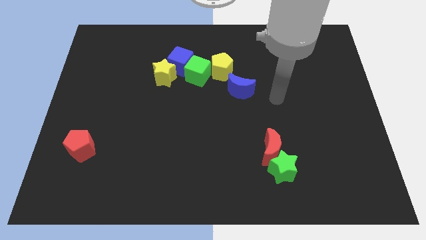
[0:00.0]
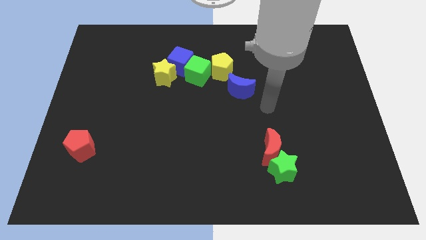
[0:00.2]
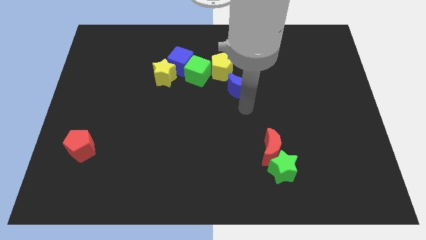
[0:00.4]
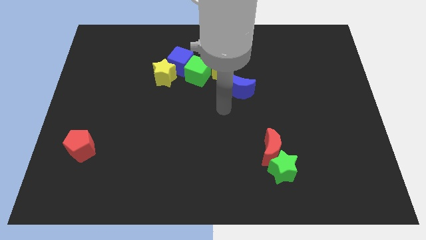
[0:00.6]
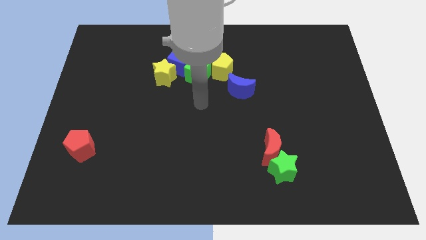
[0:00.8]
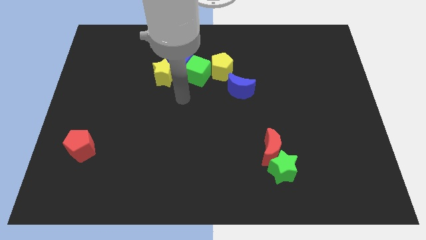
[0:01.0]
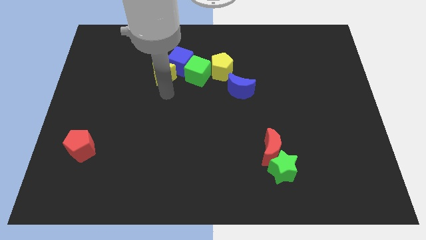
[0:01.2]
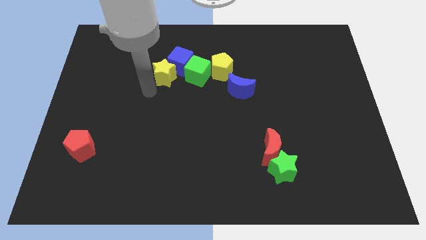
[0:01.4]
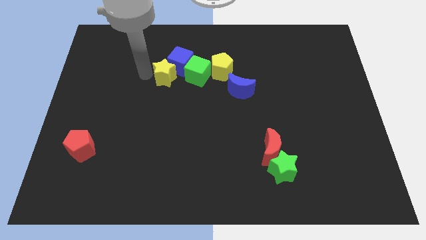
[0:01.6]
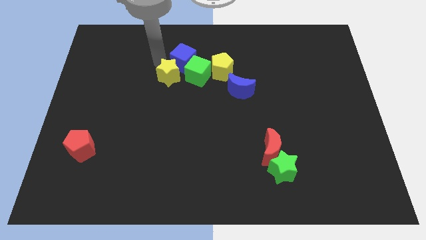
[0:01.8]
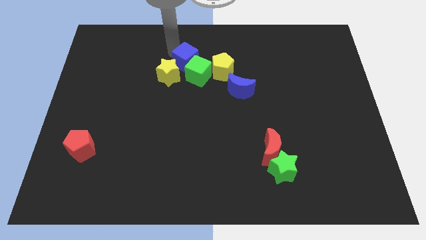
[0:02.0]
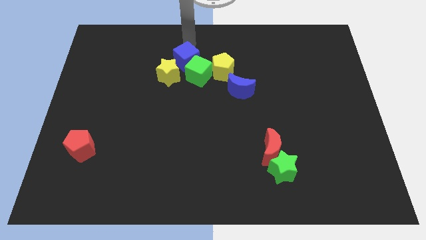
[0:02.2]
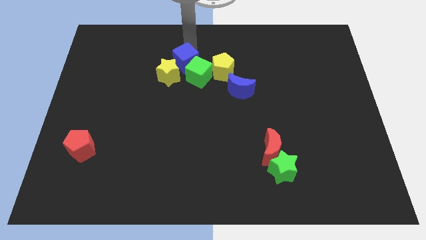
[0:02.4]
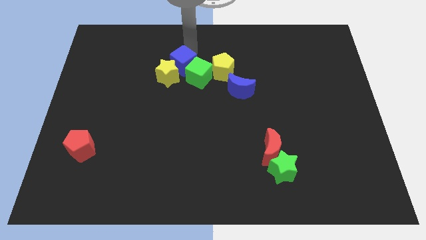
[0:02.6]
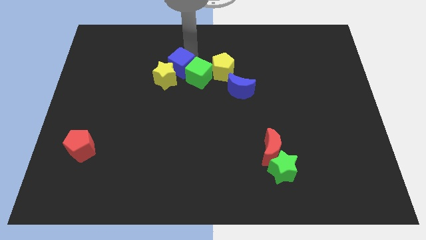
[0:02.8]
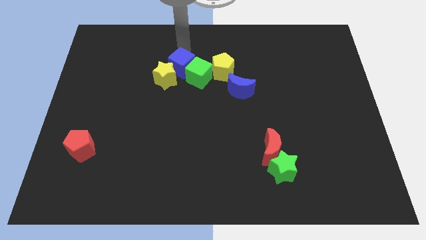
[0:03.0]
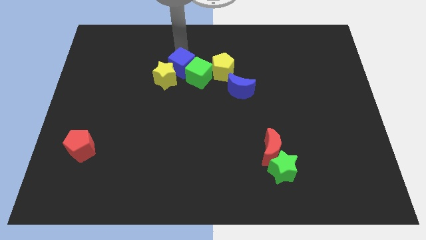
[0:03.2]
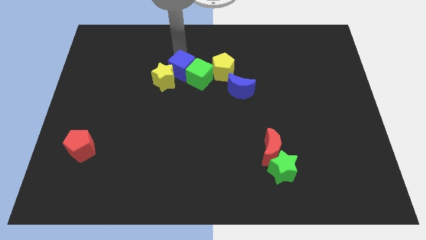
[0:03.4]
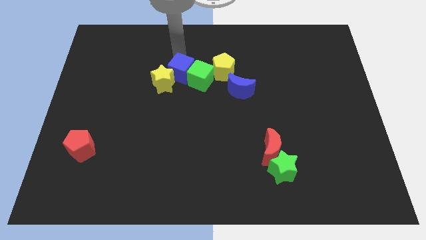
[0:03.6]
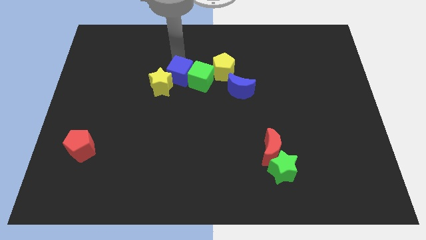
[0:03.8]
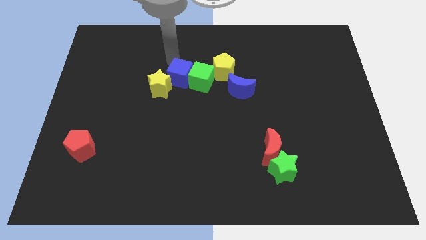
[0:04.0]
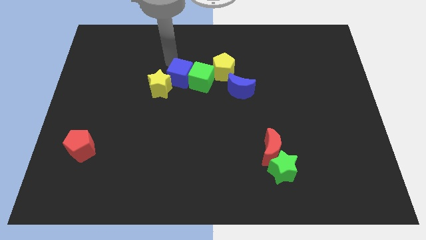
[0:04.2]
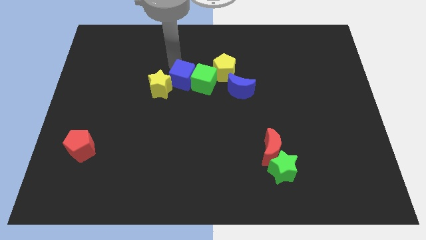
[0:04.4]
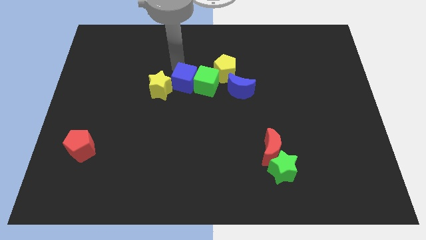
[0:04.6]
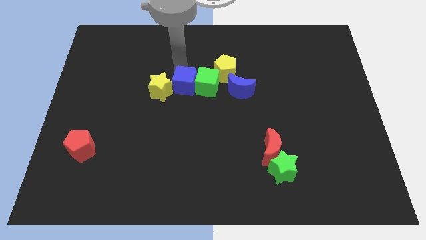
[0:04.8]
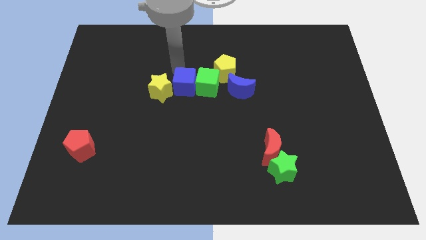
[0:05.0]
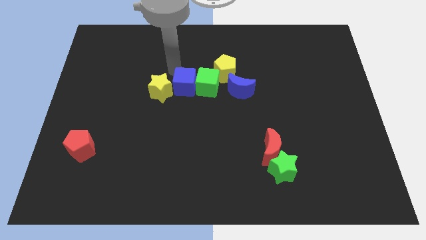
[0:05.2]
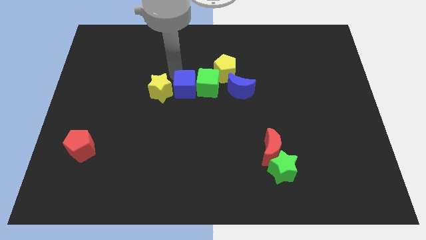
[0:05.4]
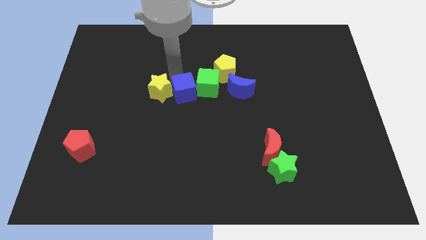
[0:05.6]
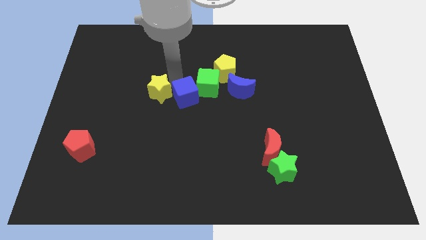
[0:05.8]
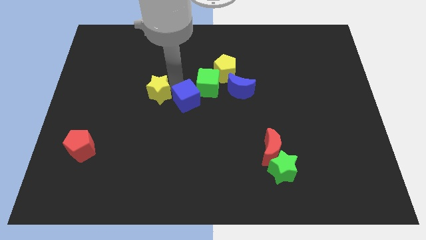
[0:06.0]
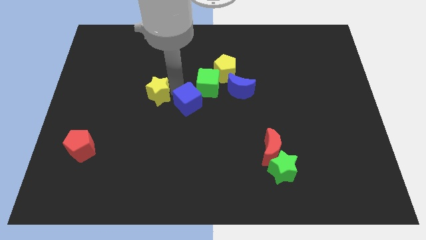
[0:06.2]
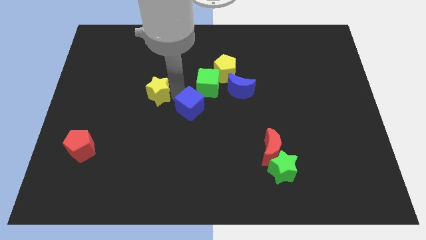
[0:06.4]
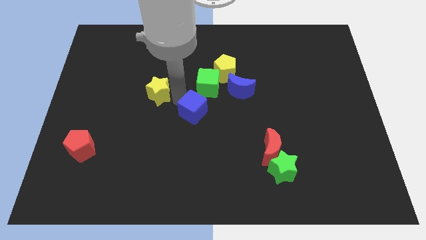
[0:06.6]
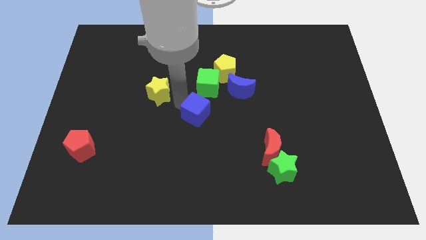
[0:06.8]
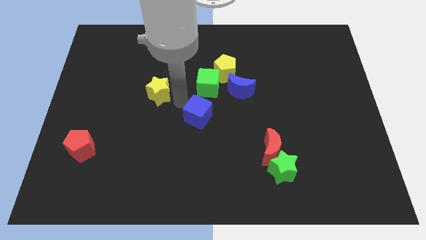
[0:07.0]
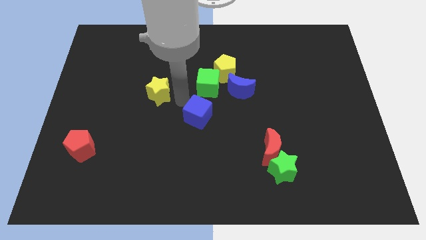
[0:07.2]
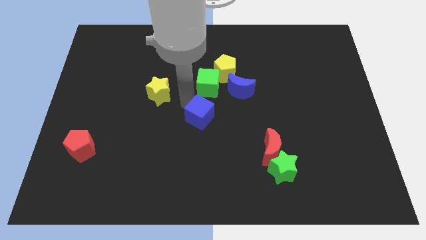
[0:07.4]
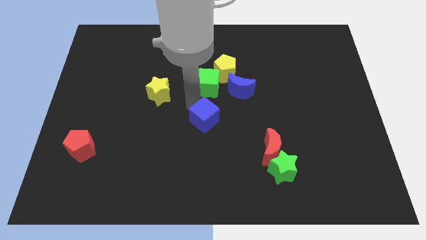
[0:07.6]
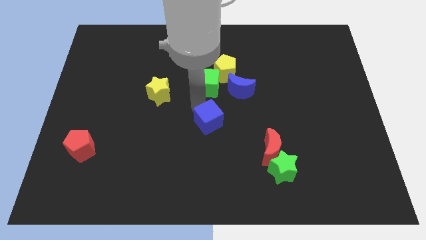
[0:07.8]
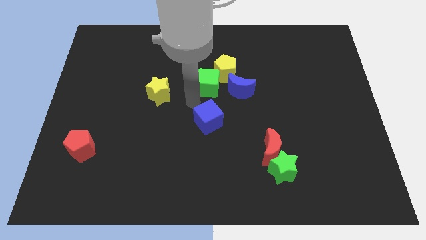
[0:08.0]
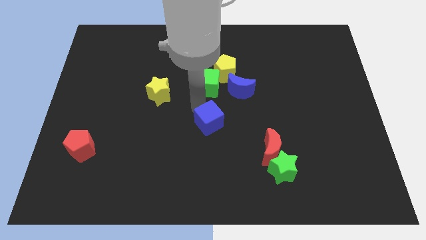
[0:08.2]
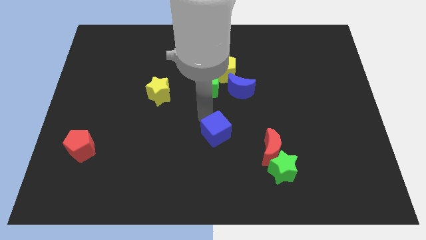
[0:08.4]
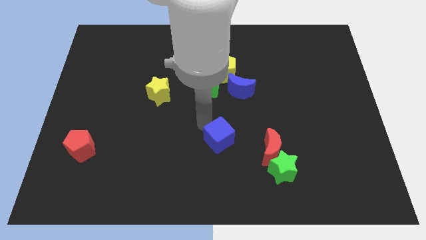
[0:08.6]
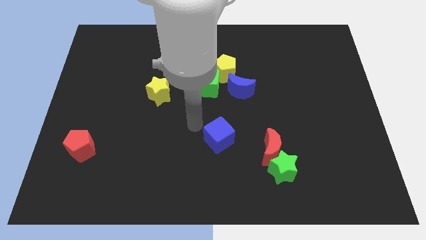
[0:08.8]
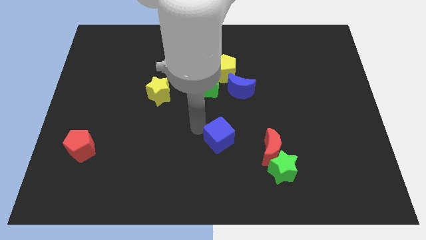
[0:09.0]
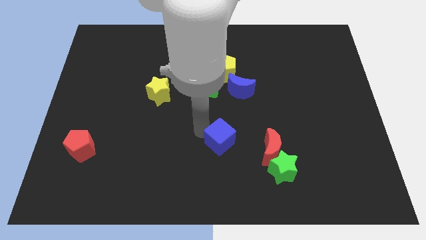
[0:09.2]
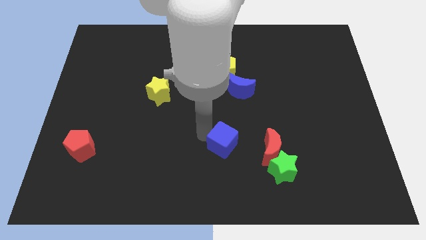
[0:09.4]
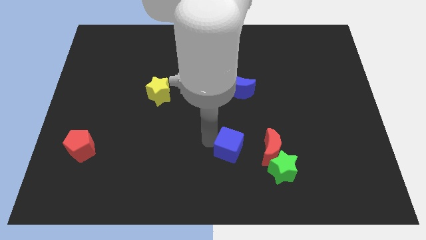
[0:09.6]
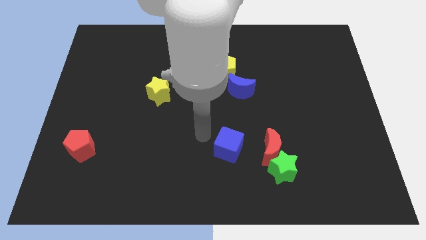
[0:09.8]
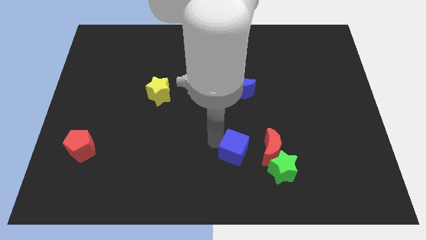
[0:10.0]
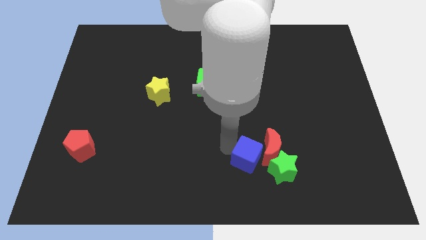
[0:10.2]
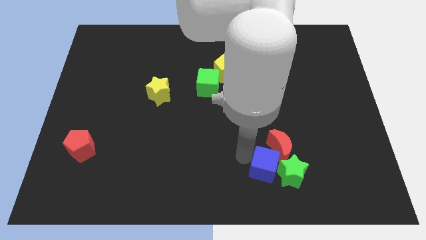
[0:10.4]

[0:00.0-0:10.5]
move the blue cube towards the green star

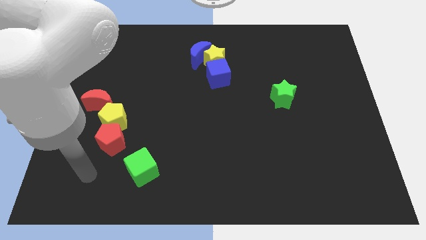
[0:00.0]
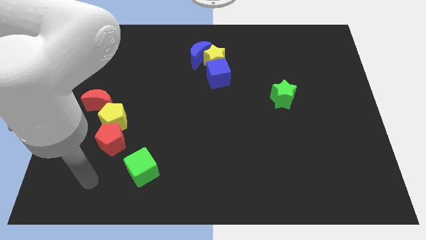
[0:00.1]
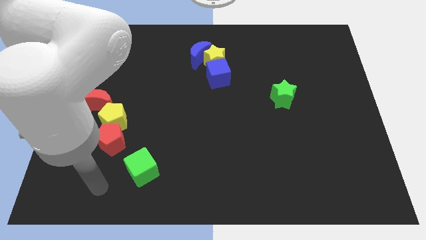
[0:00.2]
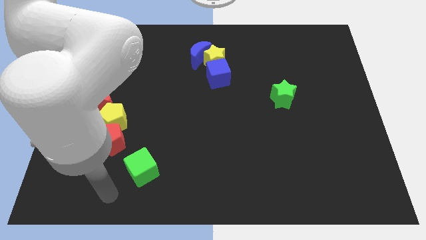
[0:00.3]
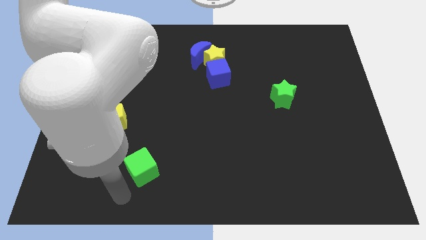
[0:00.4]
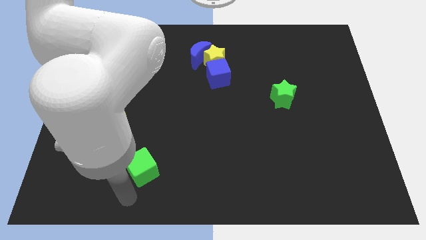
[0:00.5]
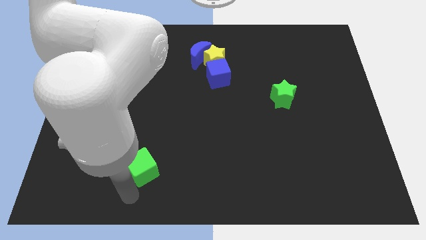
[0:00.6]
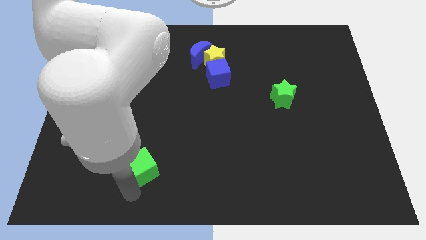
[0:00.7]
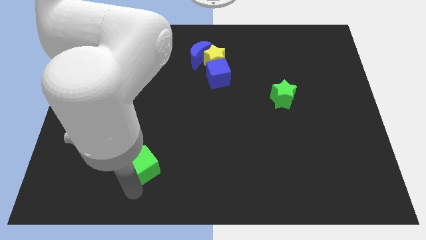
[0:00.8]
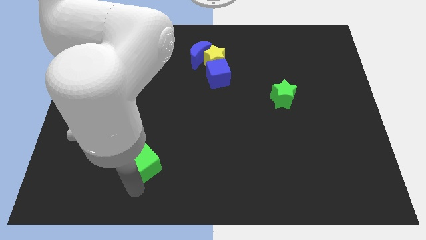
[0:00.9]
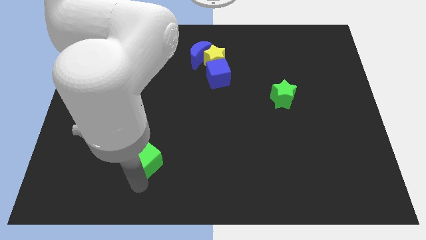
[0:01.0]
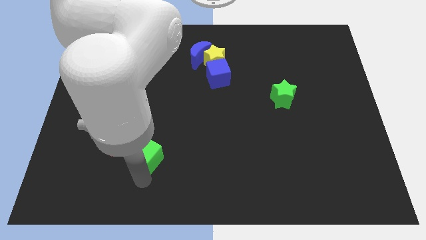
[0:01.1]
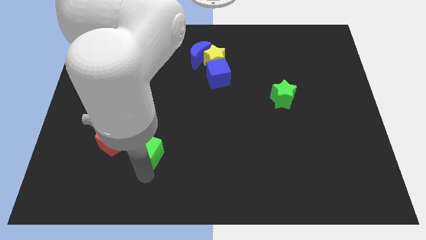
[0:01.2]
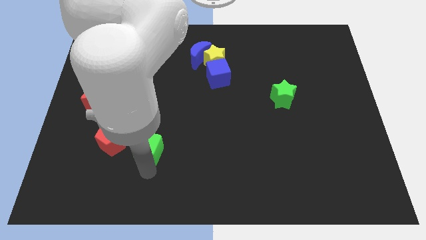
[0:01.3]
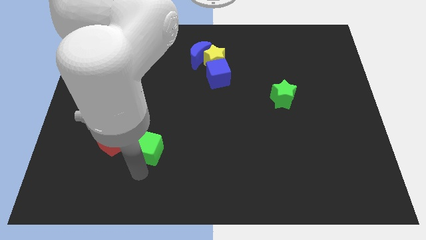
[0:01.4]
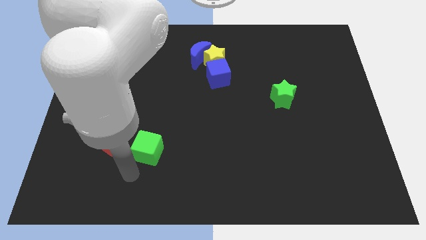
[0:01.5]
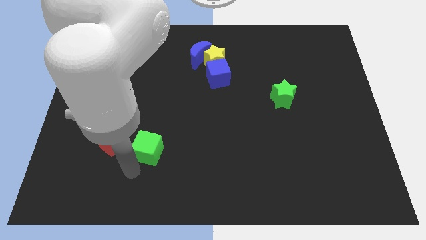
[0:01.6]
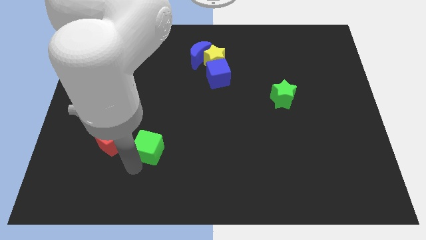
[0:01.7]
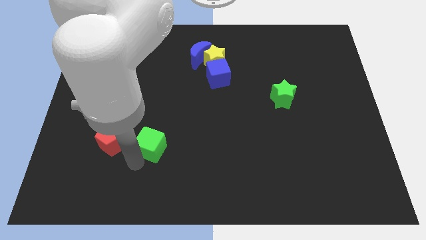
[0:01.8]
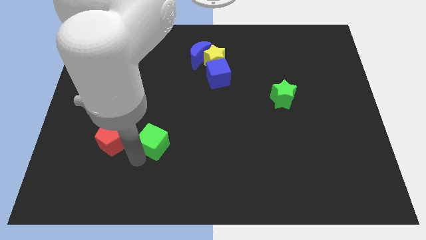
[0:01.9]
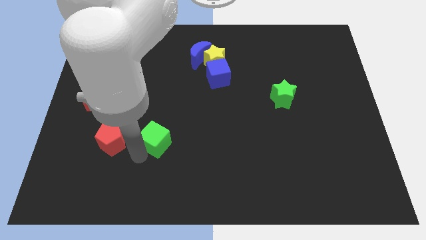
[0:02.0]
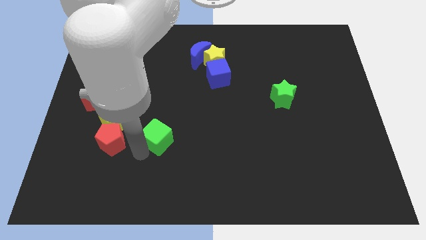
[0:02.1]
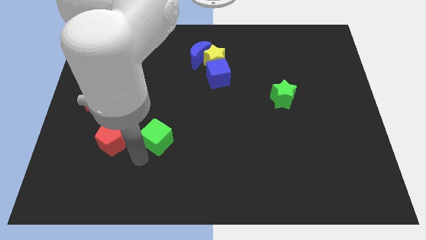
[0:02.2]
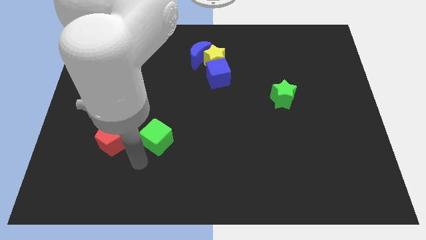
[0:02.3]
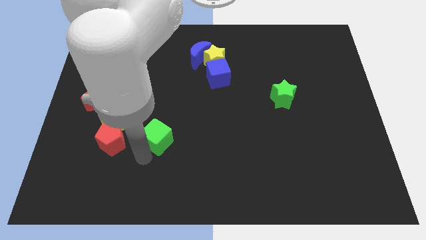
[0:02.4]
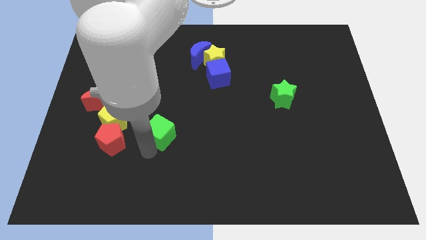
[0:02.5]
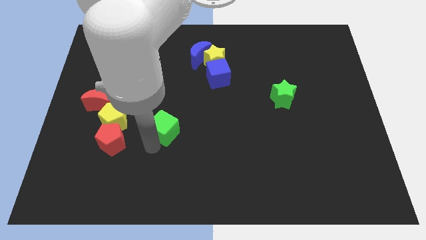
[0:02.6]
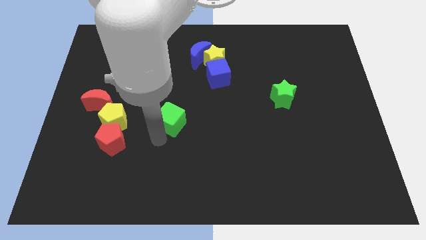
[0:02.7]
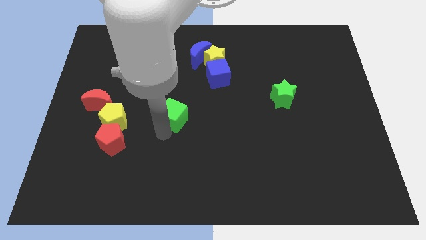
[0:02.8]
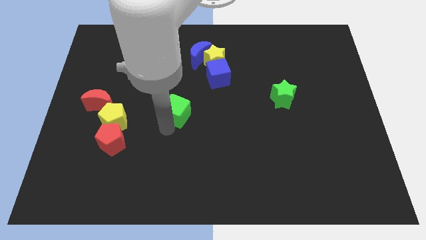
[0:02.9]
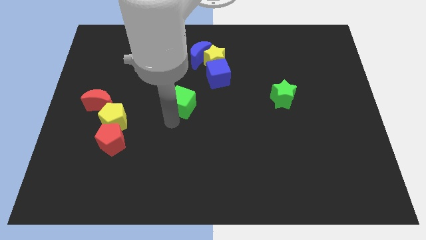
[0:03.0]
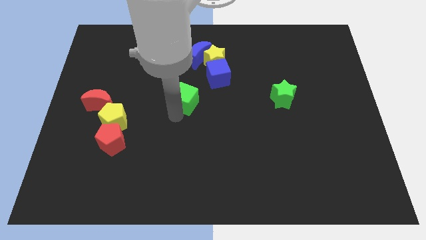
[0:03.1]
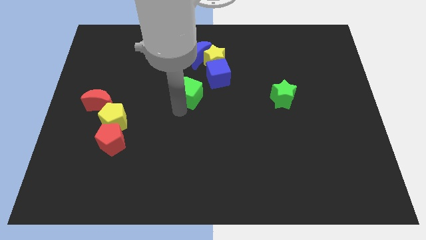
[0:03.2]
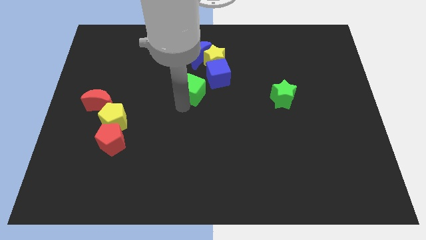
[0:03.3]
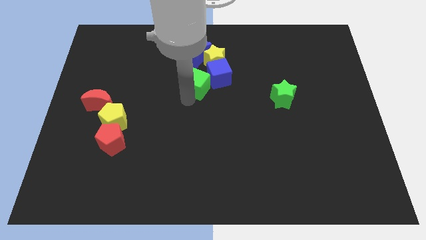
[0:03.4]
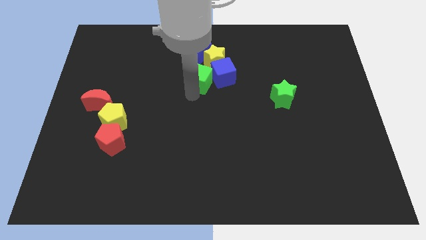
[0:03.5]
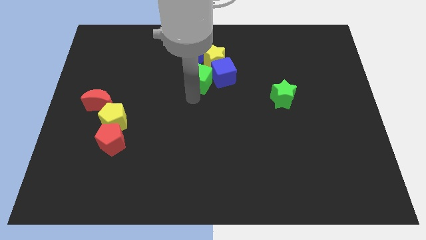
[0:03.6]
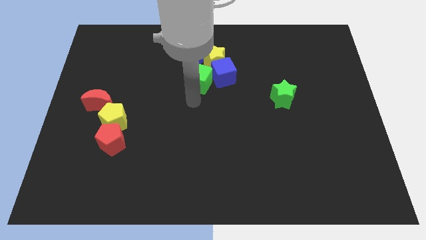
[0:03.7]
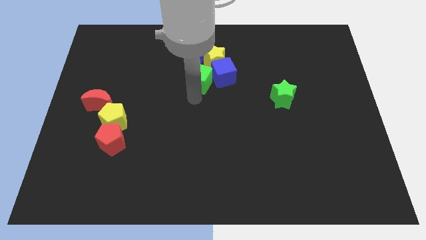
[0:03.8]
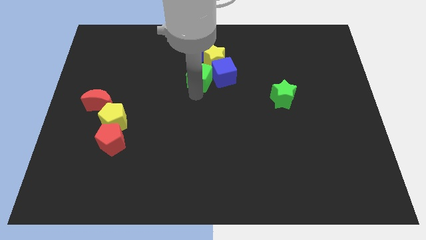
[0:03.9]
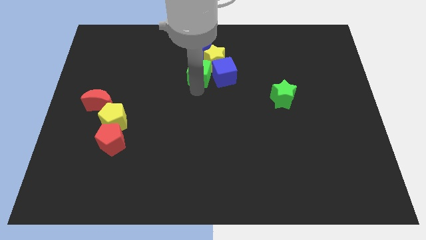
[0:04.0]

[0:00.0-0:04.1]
slide the green cube next to the yellow star
